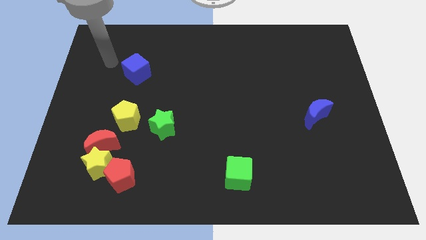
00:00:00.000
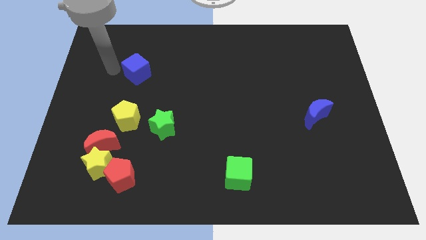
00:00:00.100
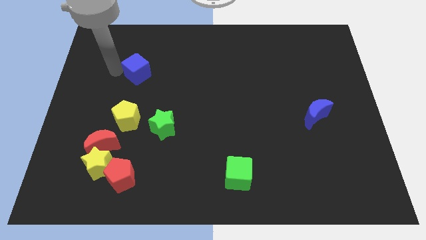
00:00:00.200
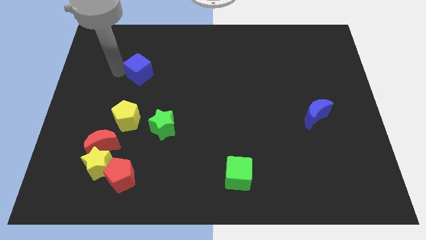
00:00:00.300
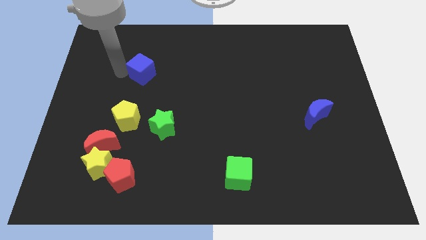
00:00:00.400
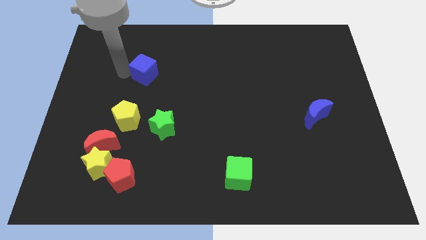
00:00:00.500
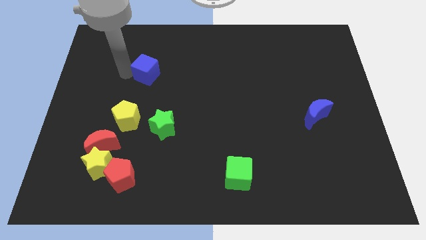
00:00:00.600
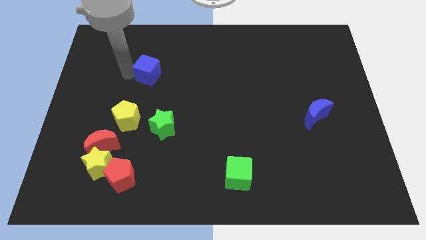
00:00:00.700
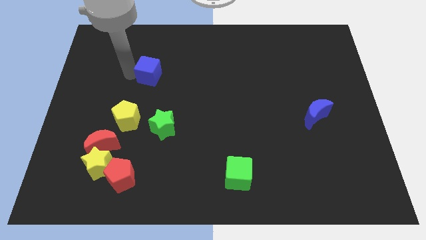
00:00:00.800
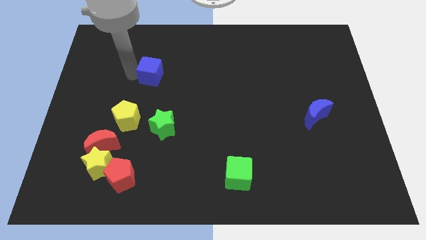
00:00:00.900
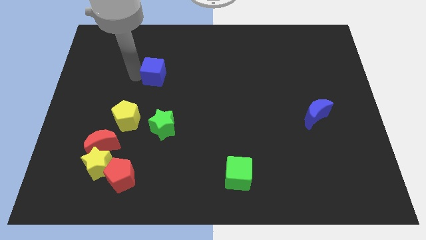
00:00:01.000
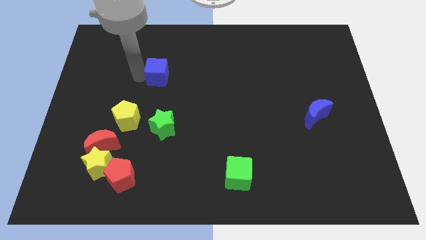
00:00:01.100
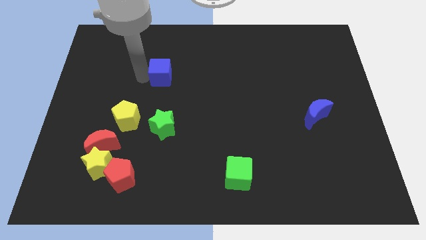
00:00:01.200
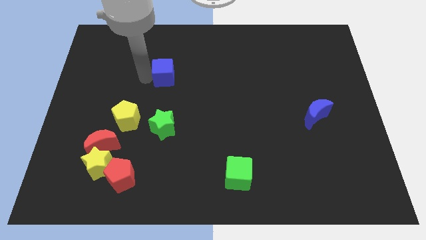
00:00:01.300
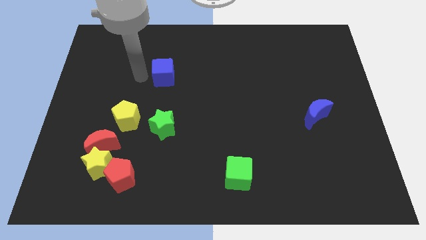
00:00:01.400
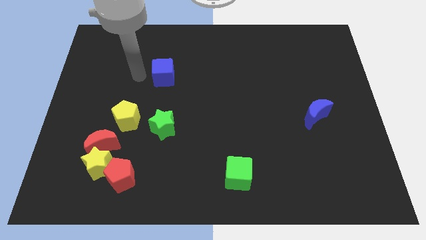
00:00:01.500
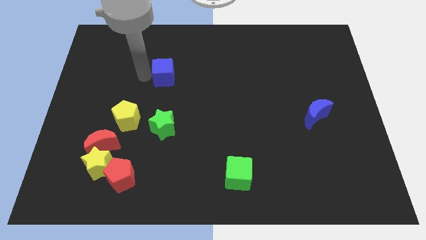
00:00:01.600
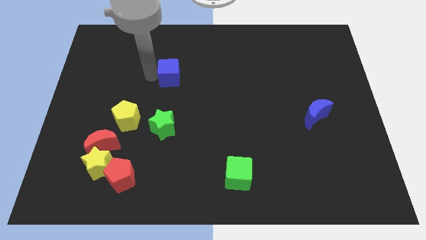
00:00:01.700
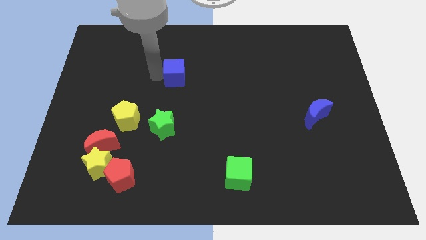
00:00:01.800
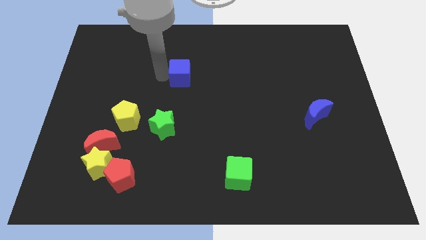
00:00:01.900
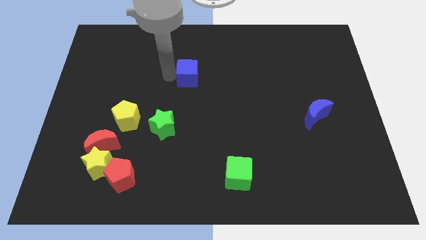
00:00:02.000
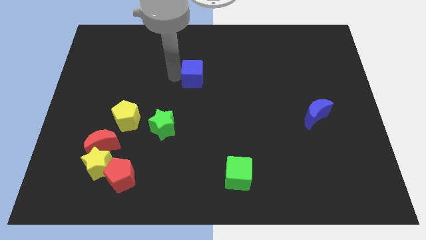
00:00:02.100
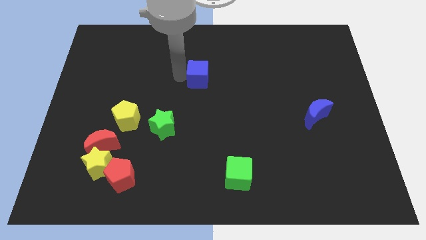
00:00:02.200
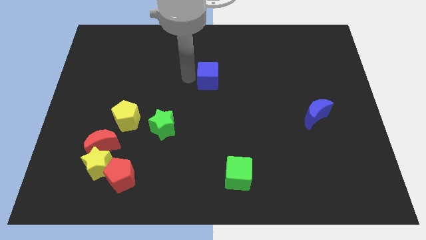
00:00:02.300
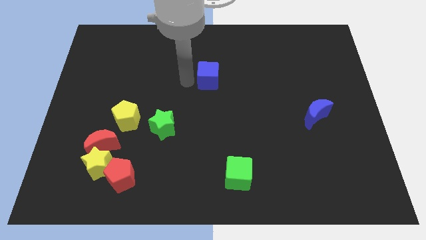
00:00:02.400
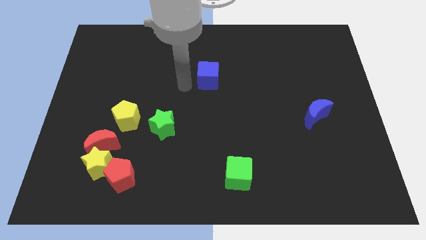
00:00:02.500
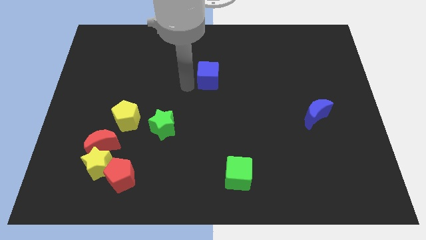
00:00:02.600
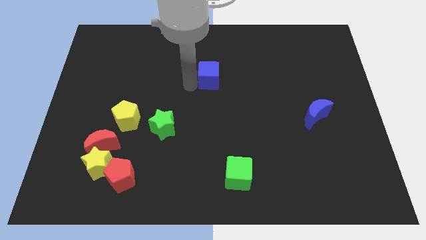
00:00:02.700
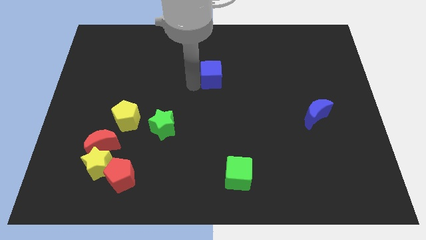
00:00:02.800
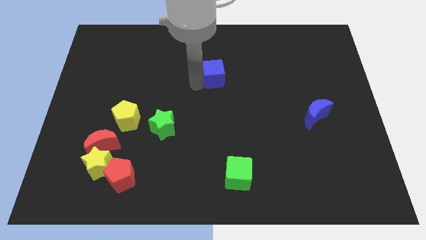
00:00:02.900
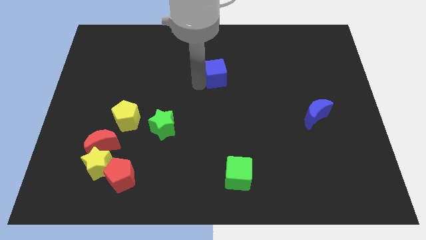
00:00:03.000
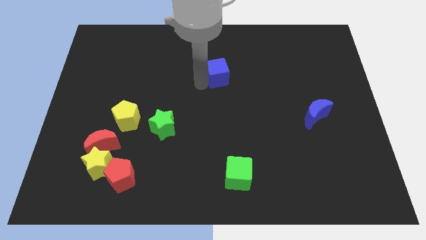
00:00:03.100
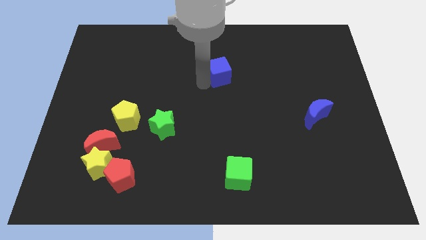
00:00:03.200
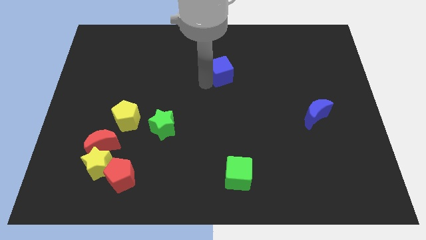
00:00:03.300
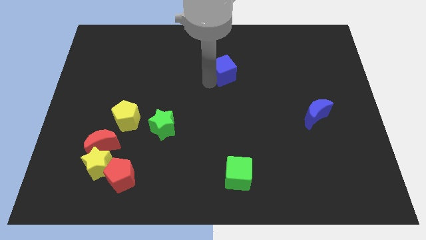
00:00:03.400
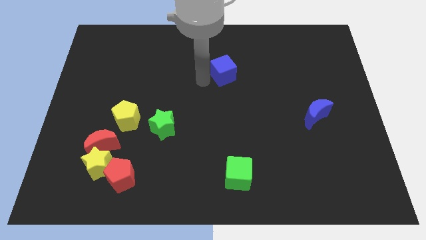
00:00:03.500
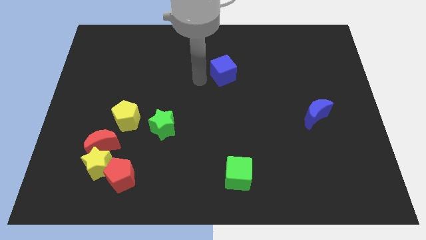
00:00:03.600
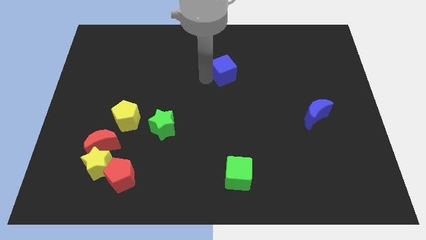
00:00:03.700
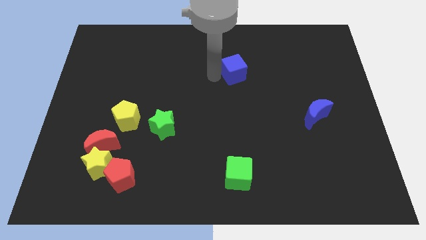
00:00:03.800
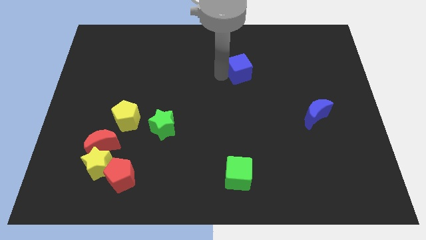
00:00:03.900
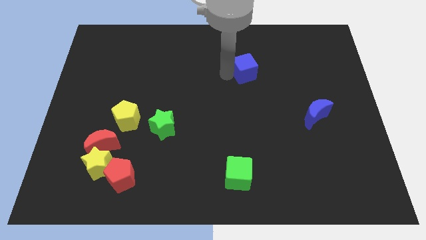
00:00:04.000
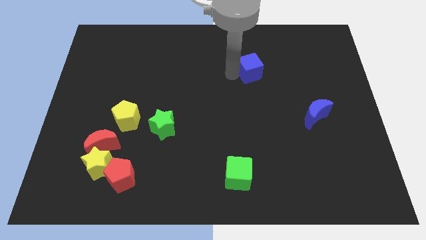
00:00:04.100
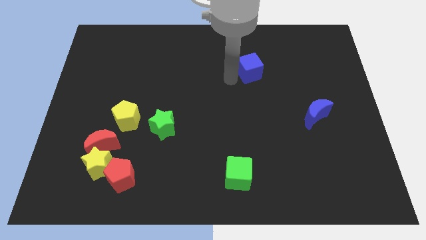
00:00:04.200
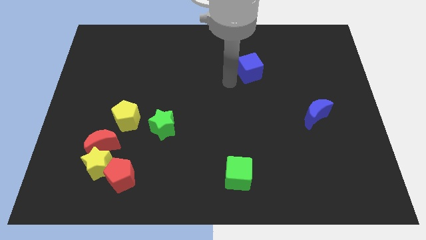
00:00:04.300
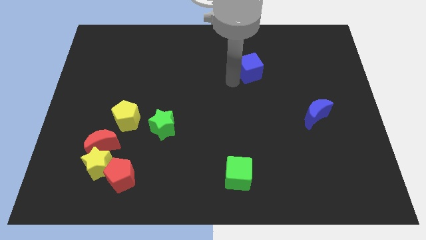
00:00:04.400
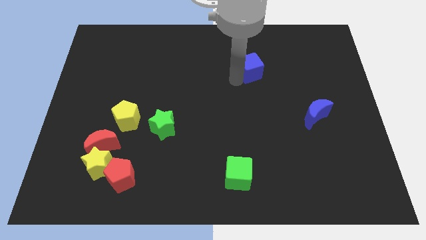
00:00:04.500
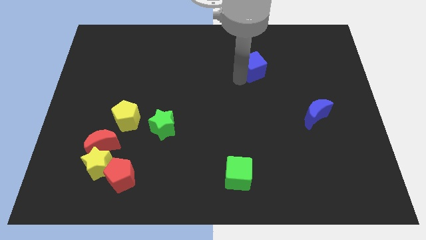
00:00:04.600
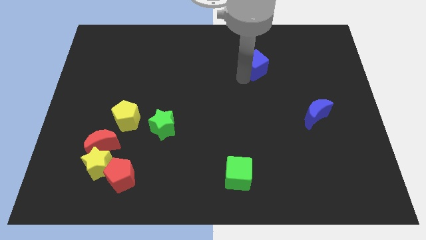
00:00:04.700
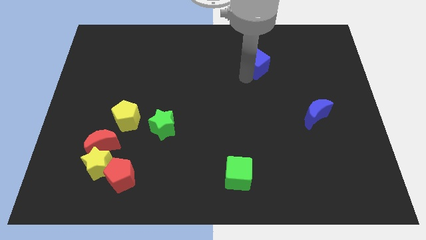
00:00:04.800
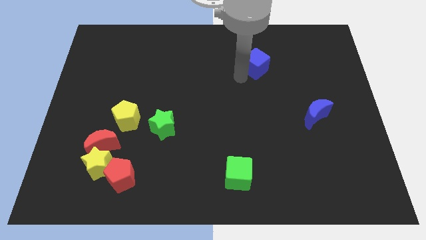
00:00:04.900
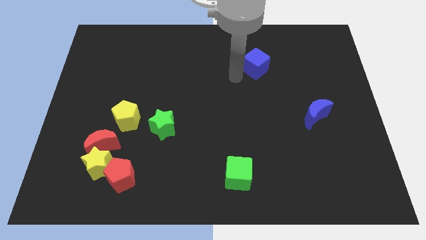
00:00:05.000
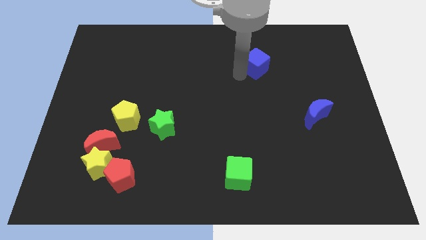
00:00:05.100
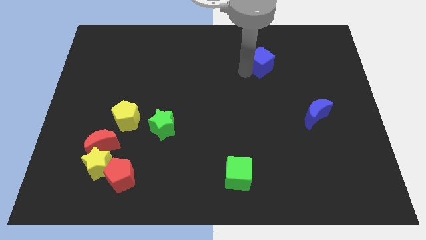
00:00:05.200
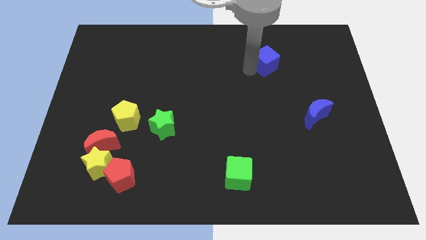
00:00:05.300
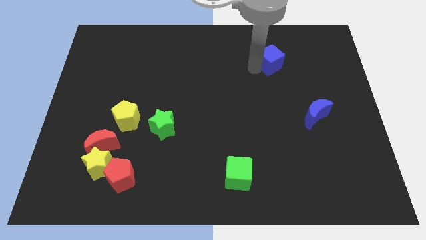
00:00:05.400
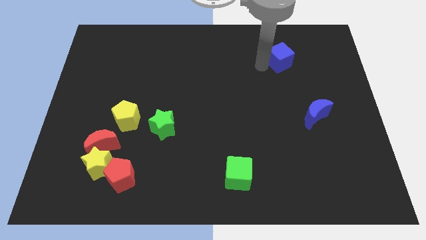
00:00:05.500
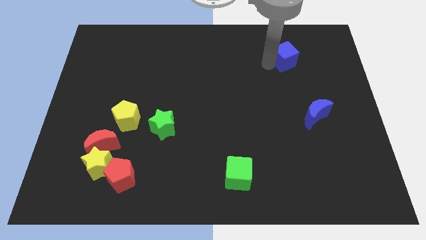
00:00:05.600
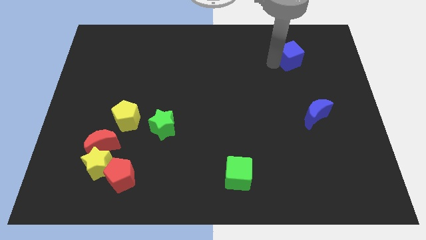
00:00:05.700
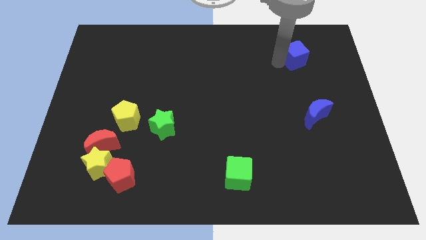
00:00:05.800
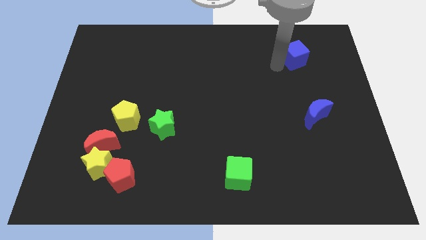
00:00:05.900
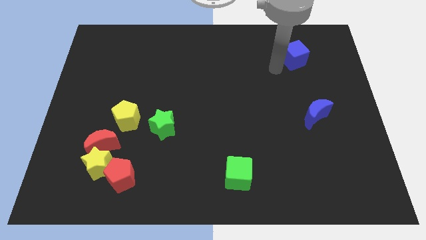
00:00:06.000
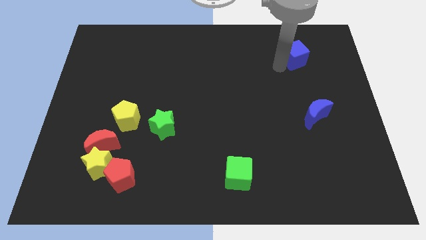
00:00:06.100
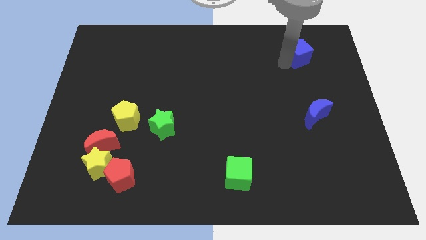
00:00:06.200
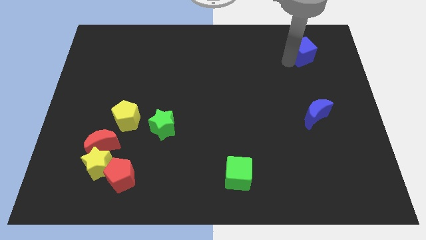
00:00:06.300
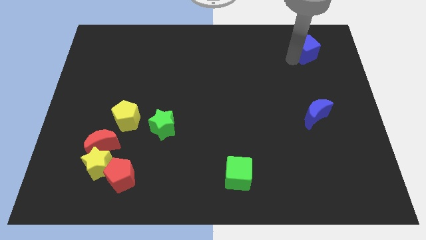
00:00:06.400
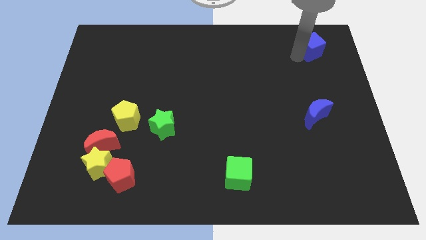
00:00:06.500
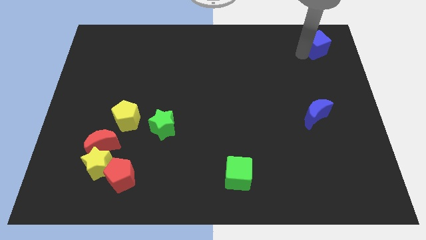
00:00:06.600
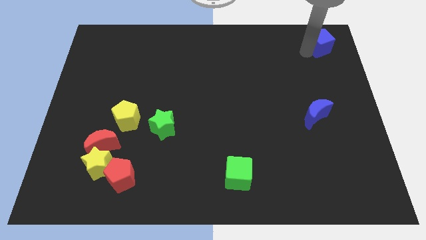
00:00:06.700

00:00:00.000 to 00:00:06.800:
push the blue cube to the top right of the board
